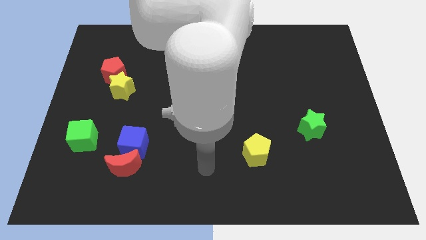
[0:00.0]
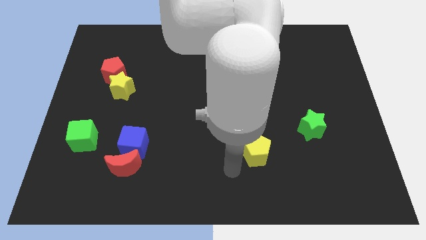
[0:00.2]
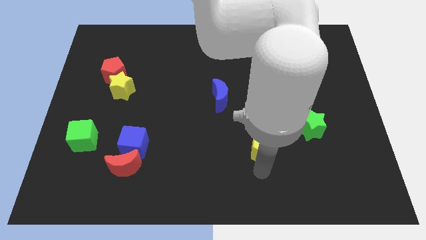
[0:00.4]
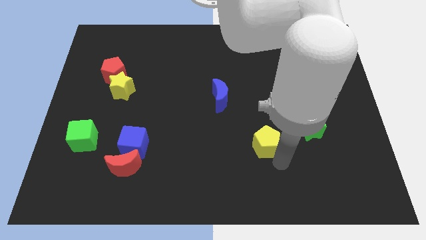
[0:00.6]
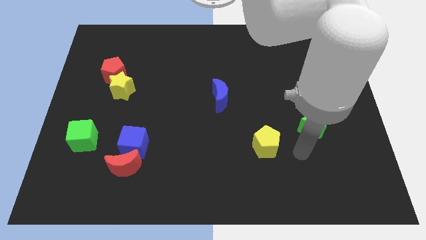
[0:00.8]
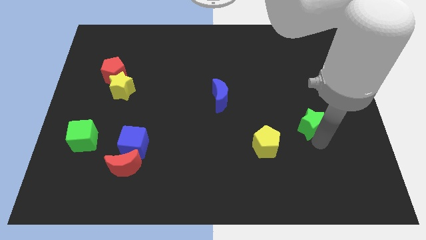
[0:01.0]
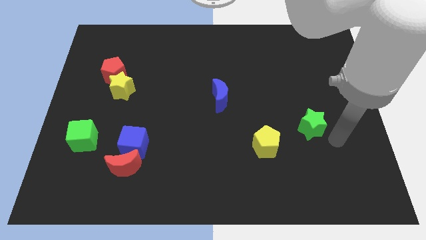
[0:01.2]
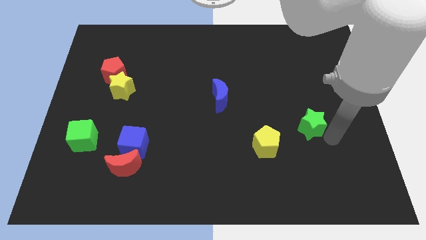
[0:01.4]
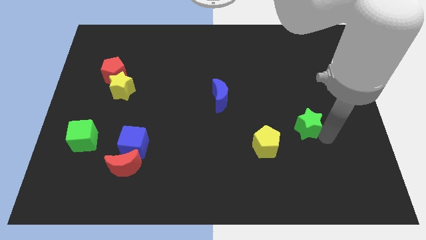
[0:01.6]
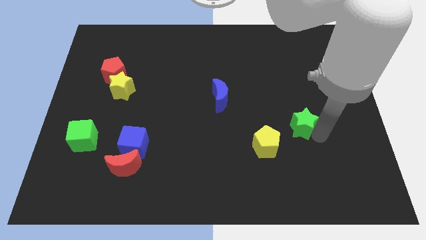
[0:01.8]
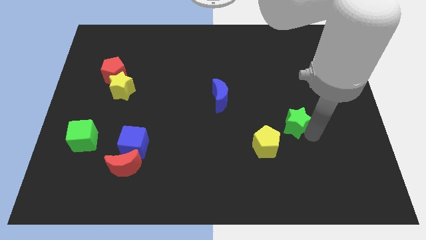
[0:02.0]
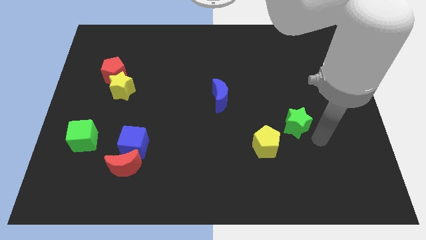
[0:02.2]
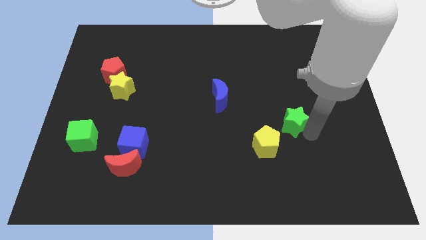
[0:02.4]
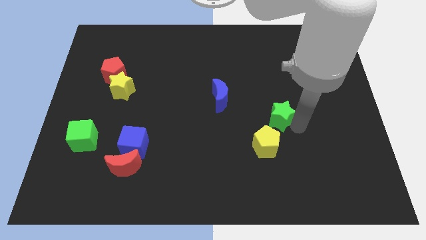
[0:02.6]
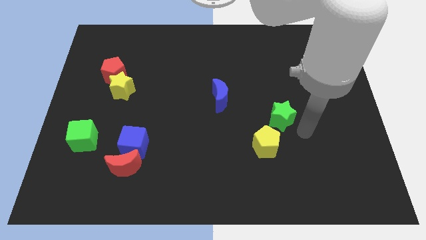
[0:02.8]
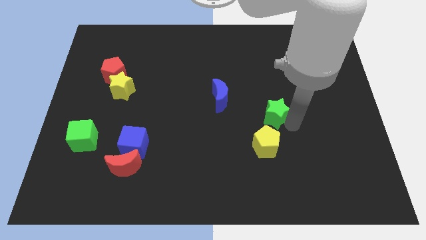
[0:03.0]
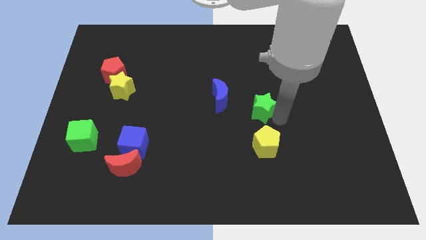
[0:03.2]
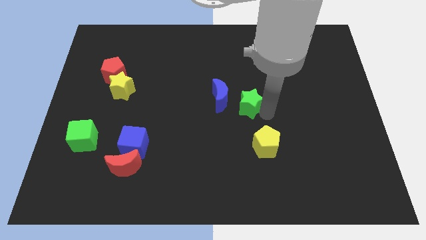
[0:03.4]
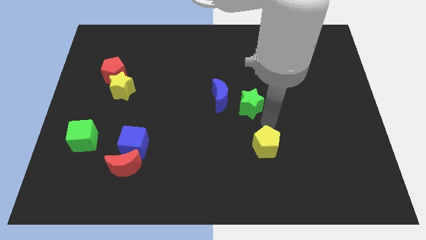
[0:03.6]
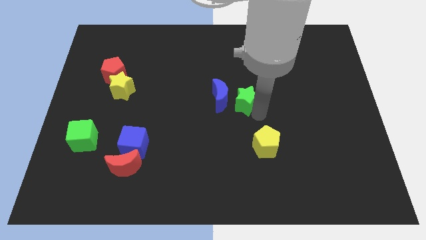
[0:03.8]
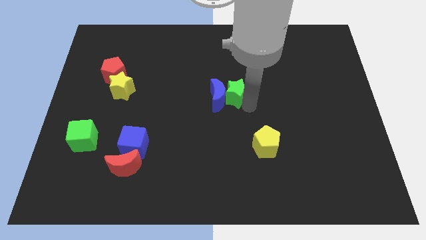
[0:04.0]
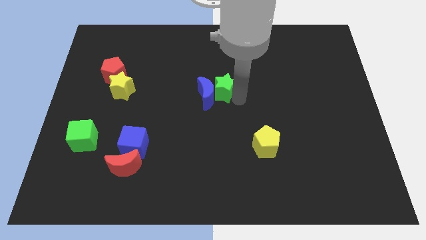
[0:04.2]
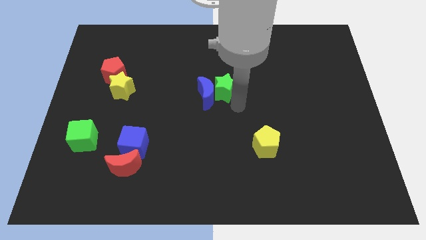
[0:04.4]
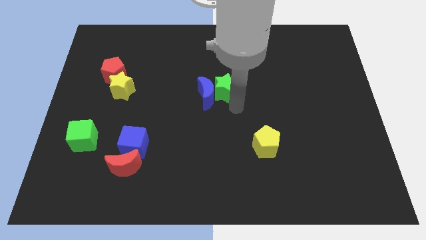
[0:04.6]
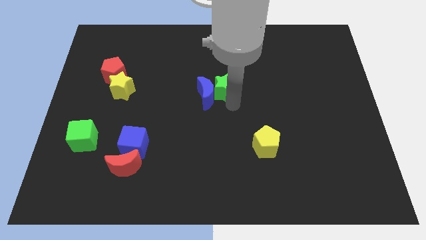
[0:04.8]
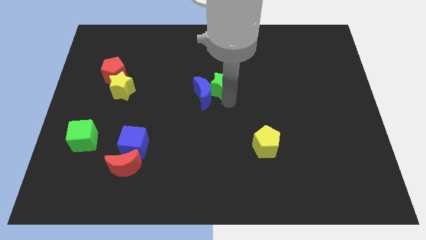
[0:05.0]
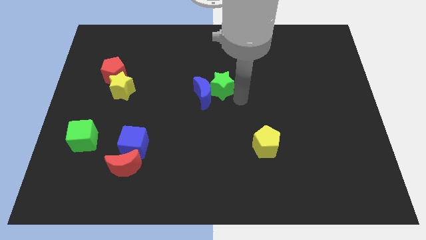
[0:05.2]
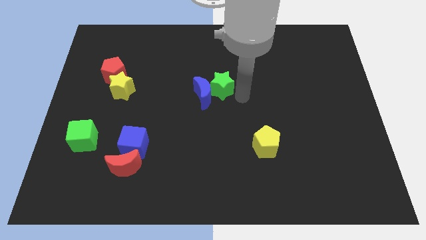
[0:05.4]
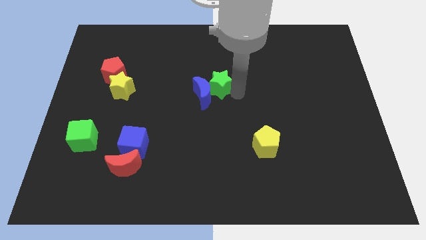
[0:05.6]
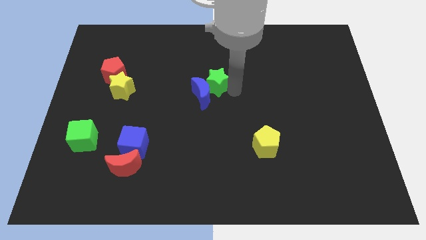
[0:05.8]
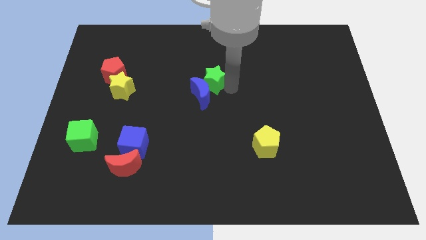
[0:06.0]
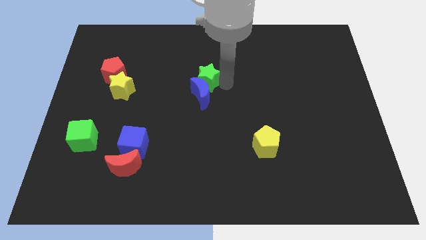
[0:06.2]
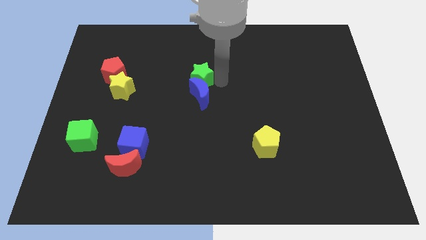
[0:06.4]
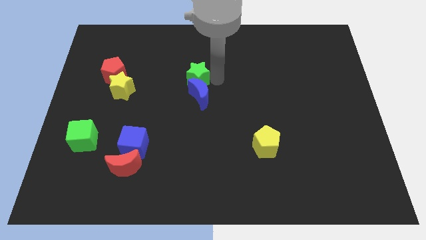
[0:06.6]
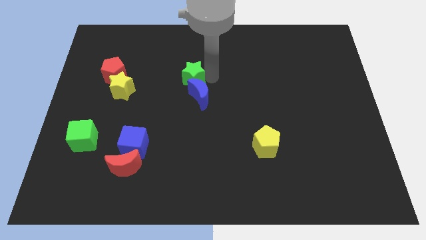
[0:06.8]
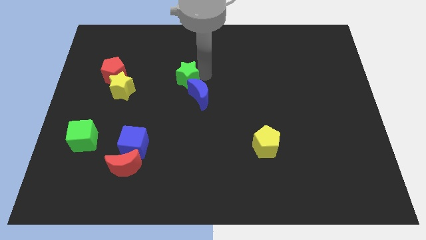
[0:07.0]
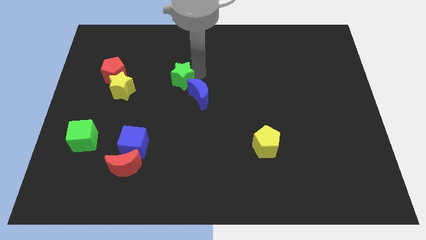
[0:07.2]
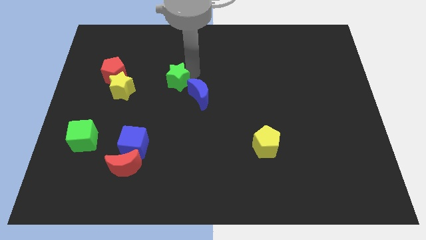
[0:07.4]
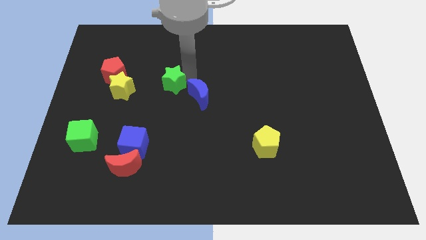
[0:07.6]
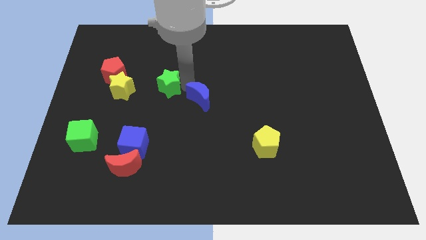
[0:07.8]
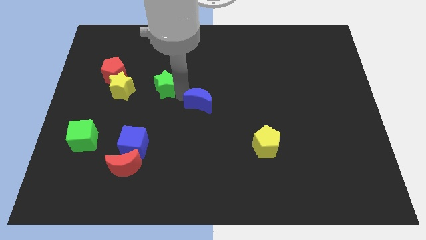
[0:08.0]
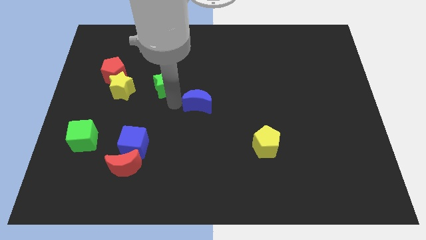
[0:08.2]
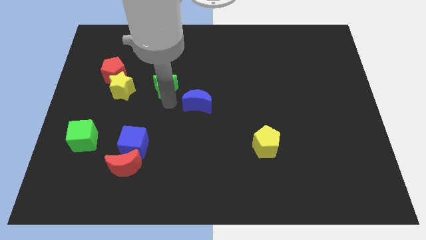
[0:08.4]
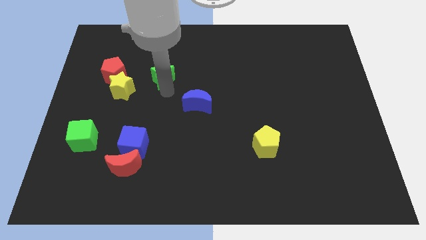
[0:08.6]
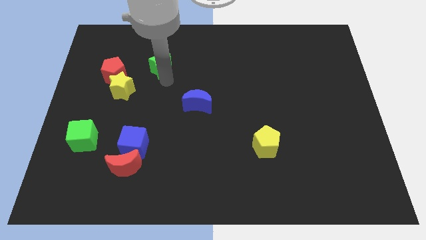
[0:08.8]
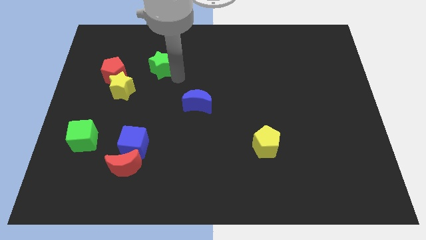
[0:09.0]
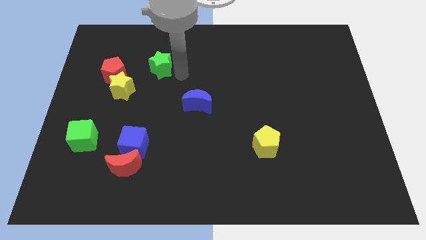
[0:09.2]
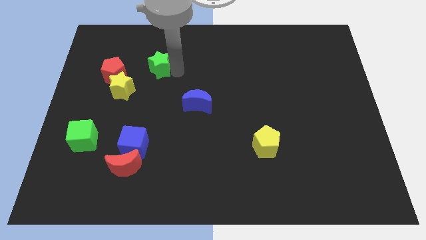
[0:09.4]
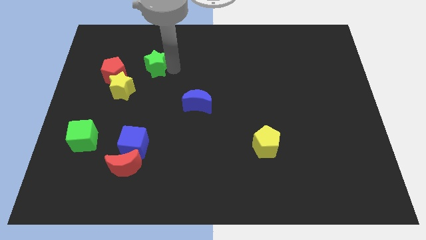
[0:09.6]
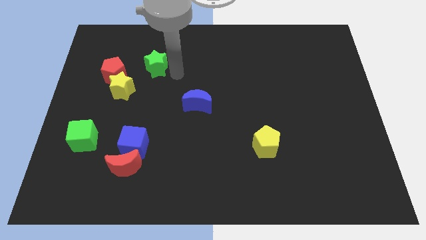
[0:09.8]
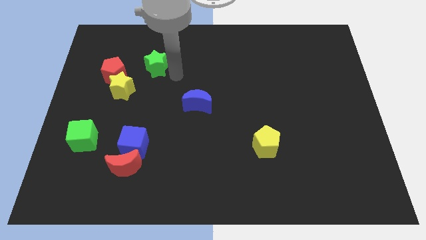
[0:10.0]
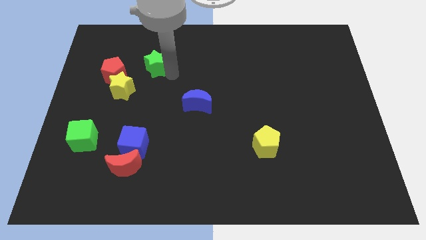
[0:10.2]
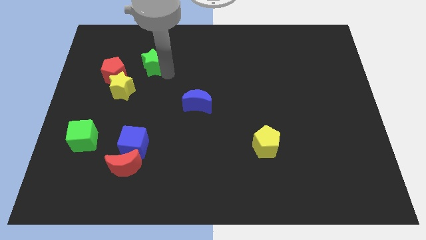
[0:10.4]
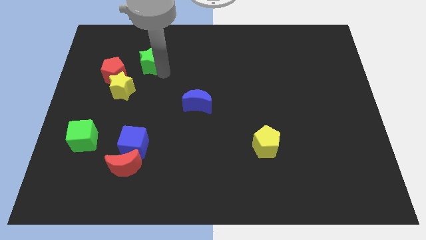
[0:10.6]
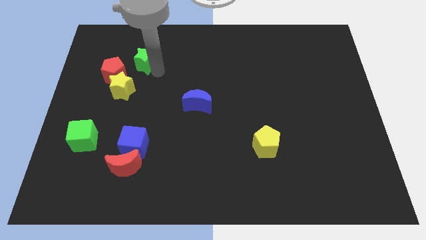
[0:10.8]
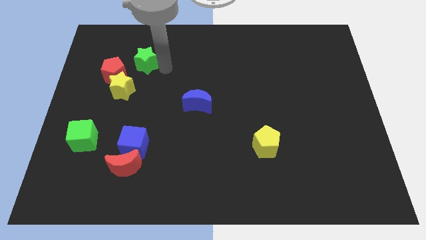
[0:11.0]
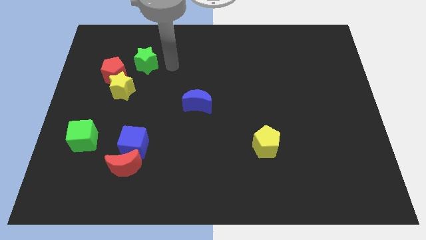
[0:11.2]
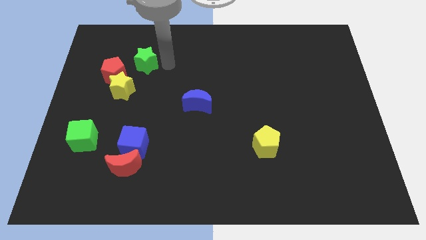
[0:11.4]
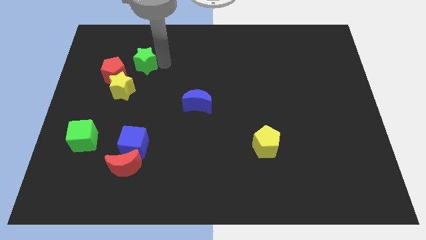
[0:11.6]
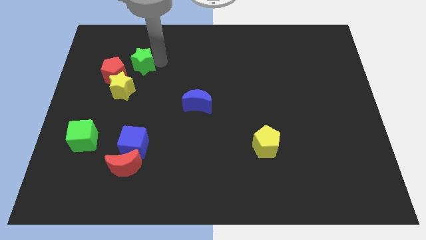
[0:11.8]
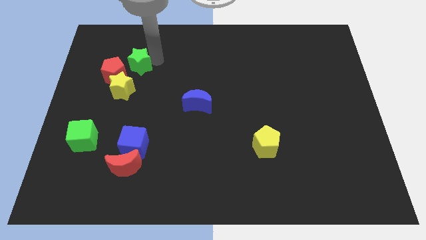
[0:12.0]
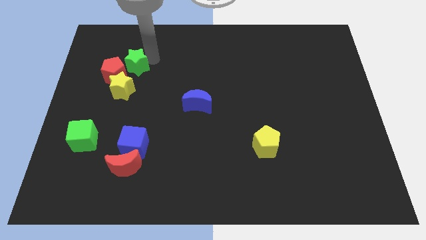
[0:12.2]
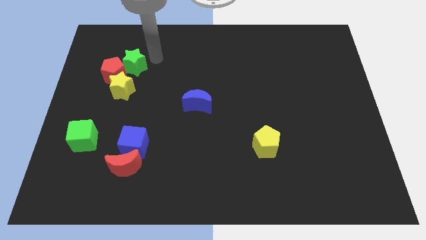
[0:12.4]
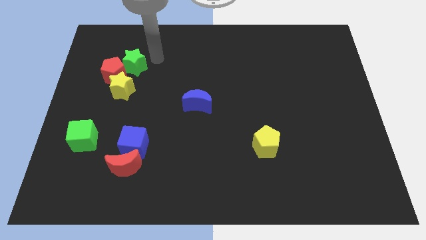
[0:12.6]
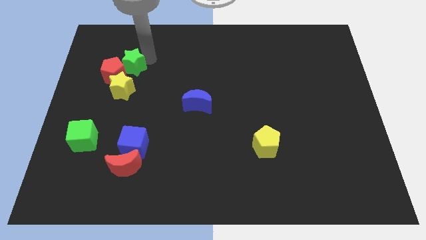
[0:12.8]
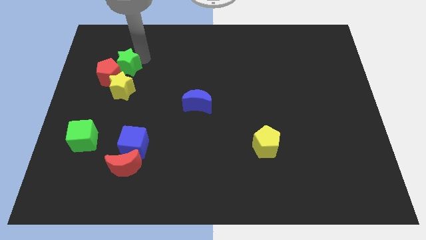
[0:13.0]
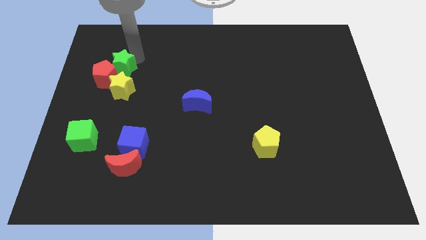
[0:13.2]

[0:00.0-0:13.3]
move the green star to the top left side of the yellow star
